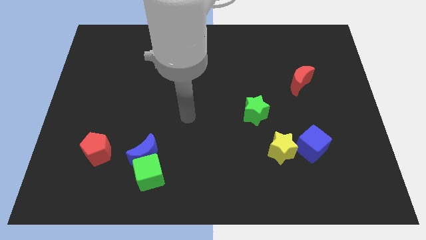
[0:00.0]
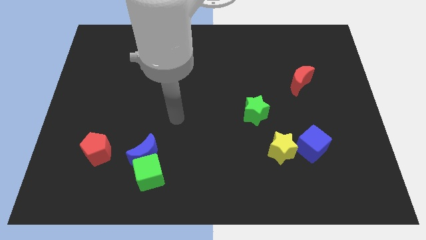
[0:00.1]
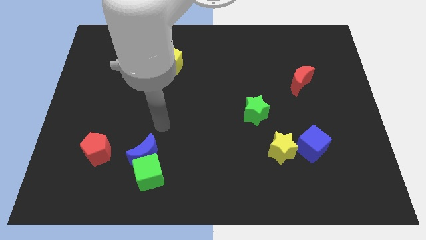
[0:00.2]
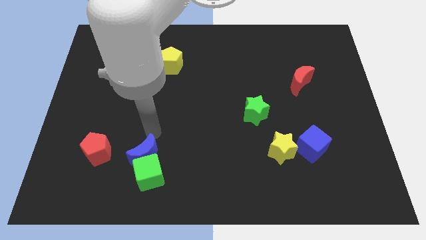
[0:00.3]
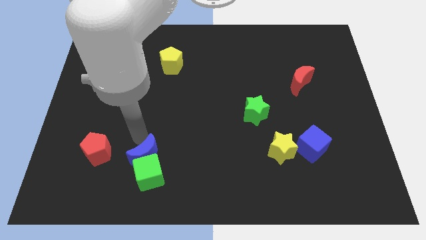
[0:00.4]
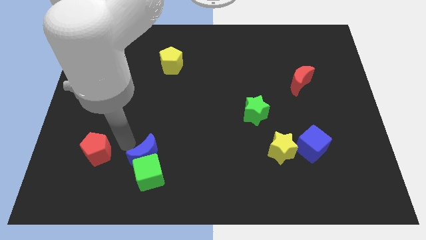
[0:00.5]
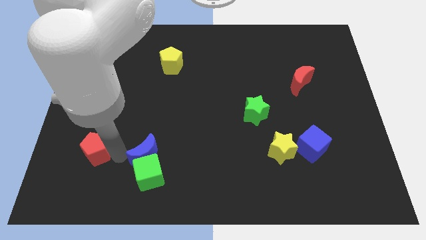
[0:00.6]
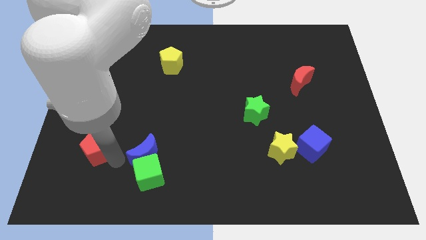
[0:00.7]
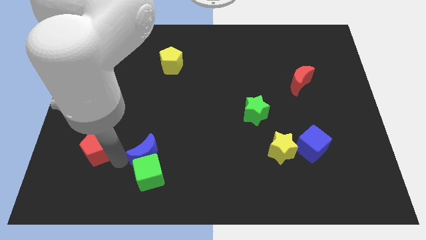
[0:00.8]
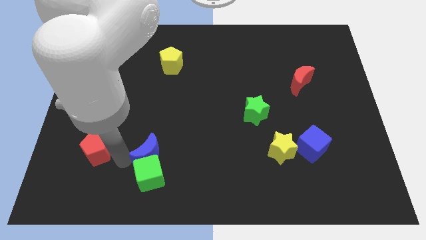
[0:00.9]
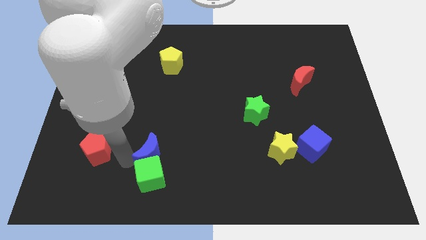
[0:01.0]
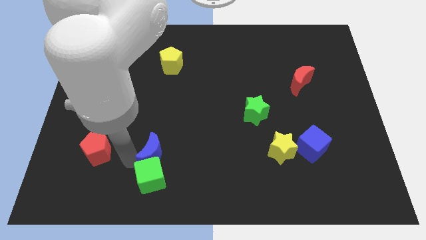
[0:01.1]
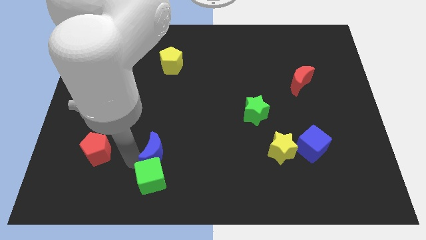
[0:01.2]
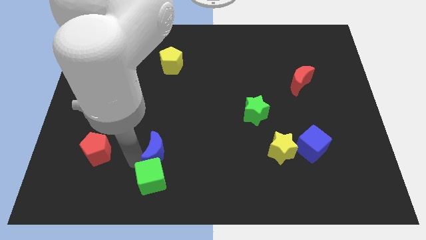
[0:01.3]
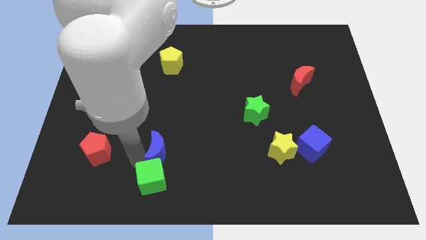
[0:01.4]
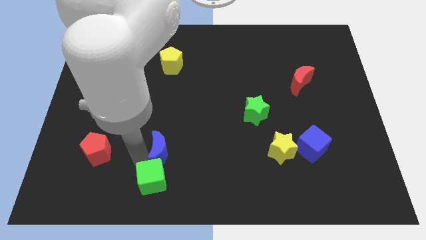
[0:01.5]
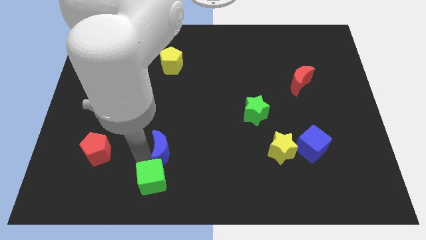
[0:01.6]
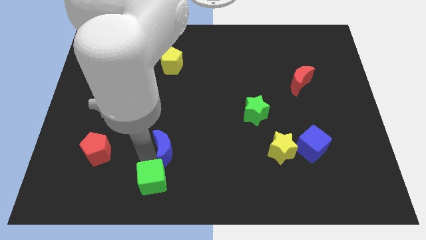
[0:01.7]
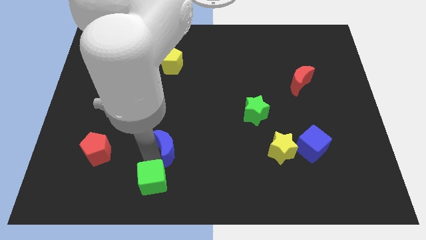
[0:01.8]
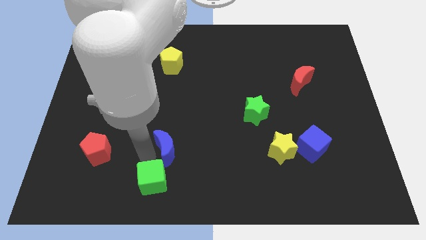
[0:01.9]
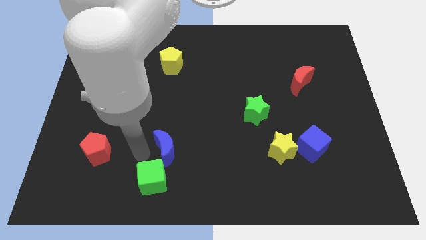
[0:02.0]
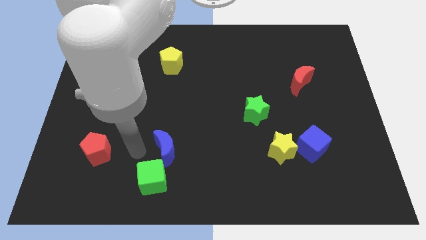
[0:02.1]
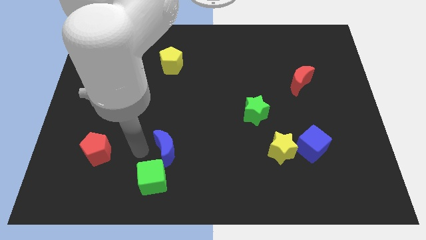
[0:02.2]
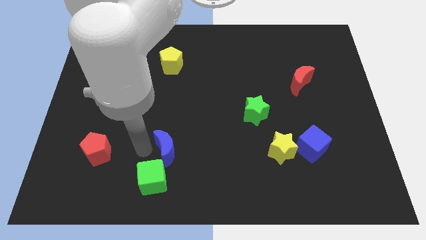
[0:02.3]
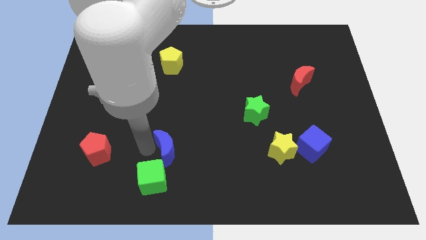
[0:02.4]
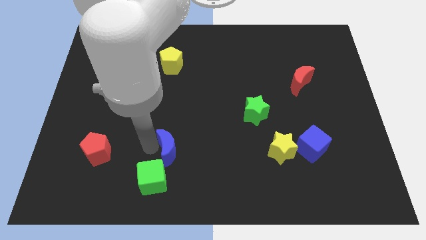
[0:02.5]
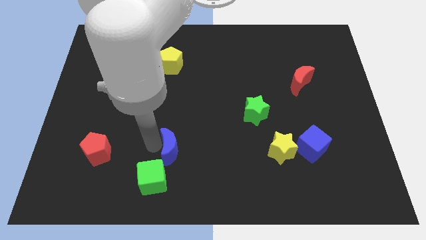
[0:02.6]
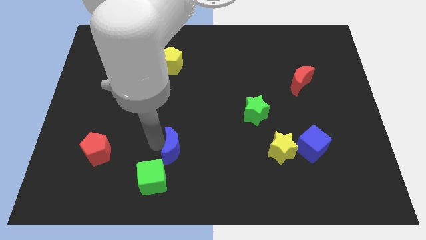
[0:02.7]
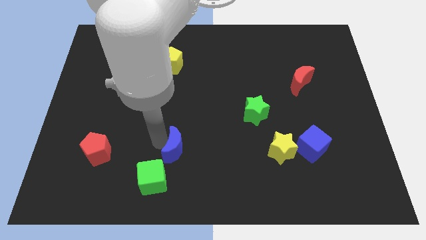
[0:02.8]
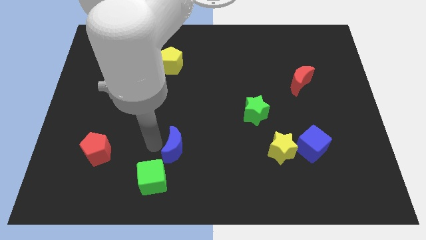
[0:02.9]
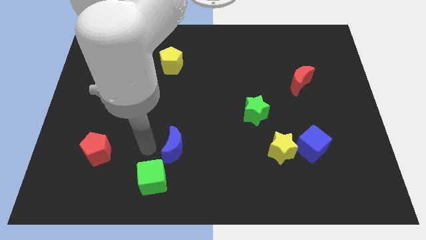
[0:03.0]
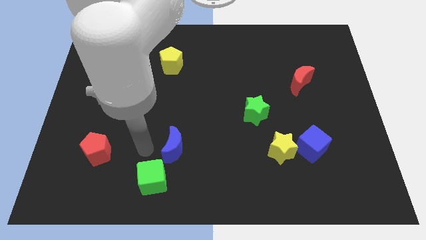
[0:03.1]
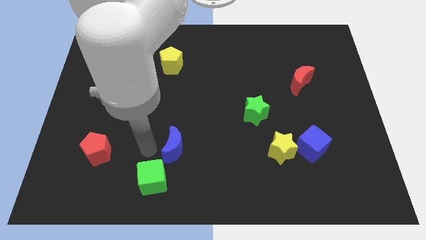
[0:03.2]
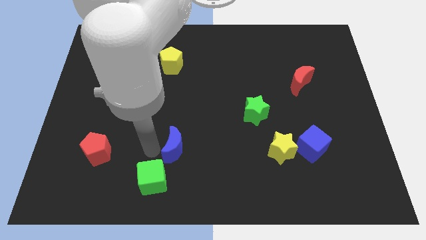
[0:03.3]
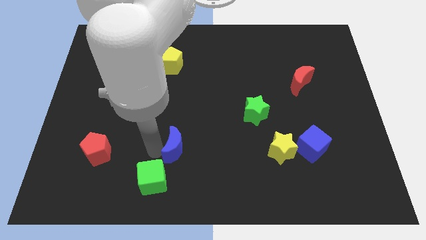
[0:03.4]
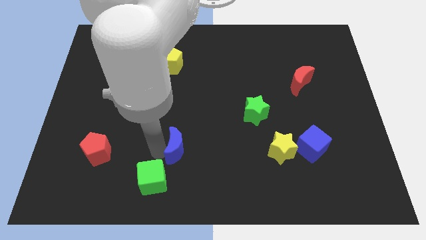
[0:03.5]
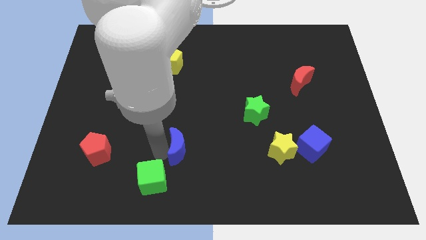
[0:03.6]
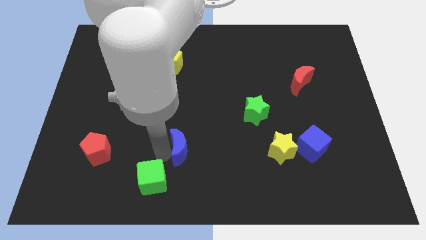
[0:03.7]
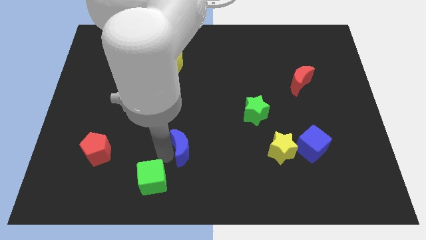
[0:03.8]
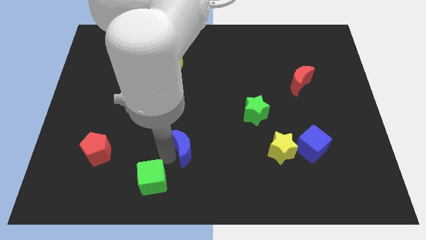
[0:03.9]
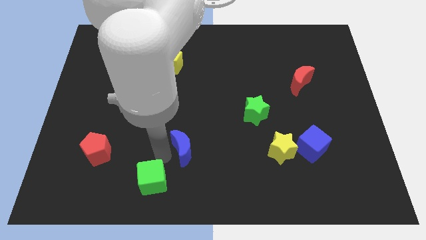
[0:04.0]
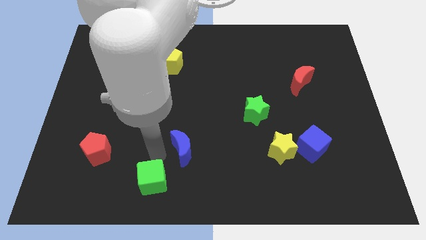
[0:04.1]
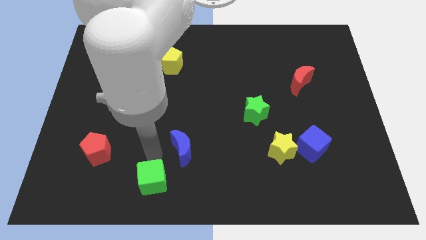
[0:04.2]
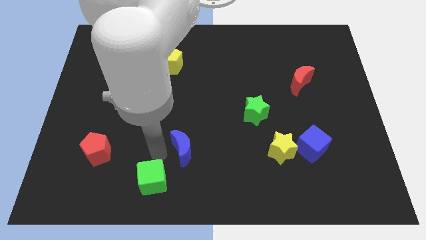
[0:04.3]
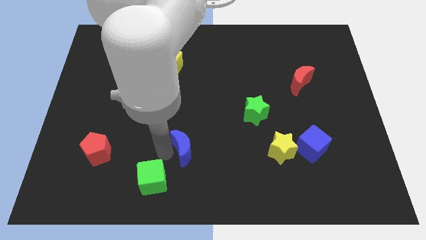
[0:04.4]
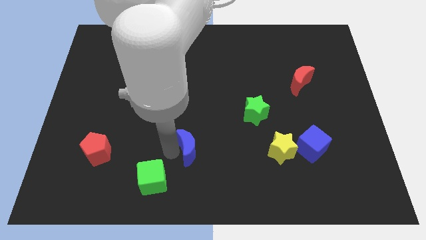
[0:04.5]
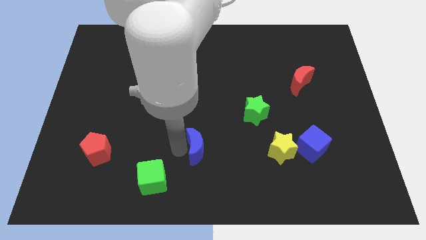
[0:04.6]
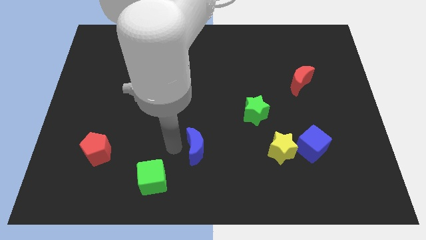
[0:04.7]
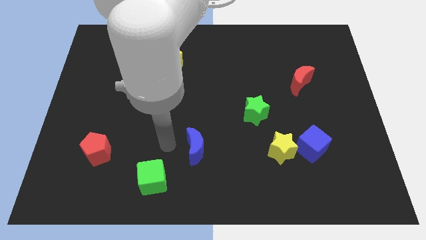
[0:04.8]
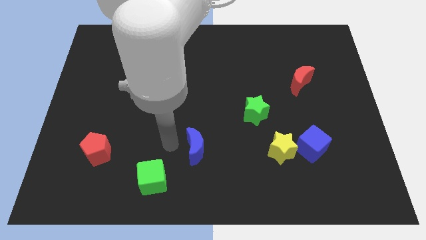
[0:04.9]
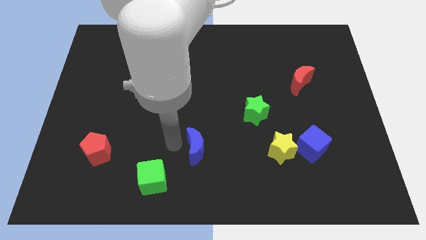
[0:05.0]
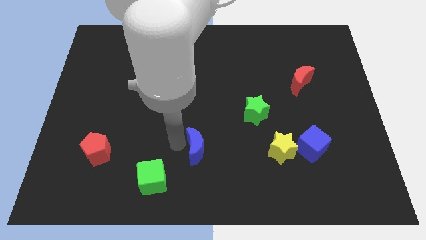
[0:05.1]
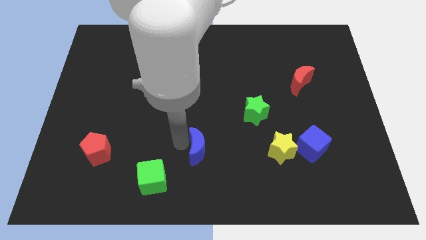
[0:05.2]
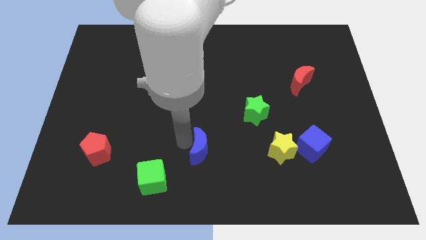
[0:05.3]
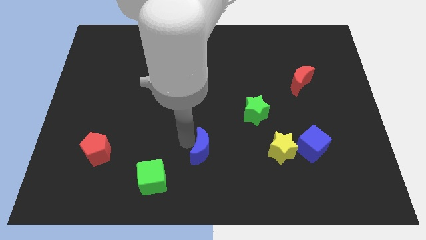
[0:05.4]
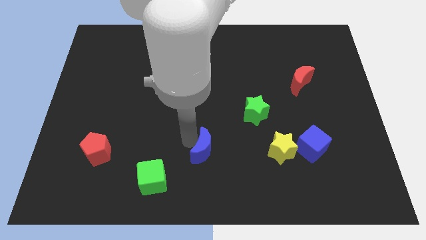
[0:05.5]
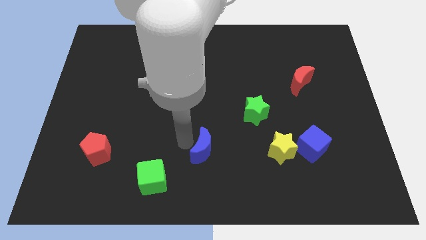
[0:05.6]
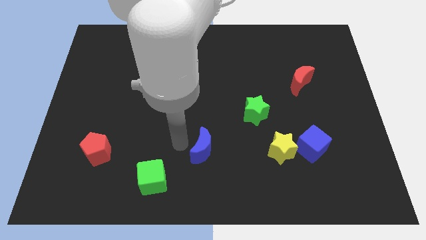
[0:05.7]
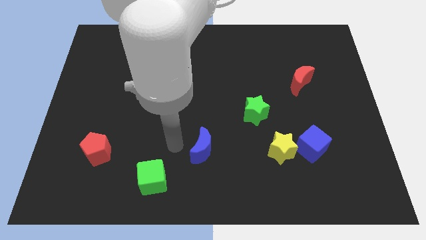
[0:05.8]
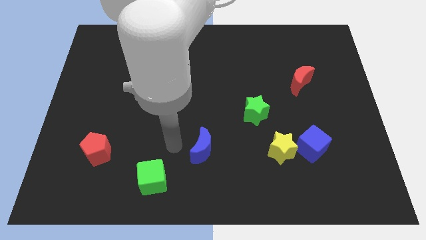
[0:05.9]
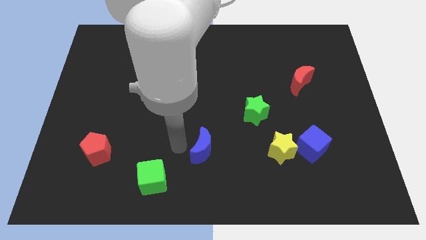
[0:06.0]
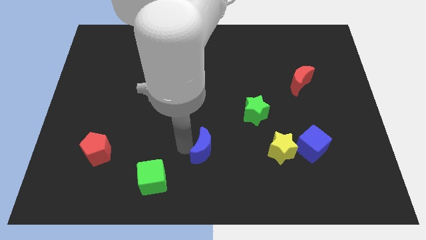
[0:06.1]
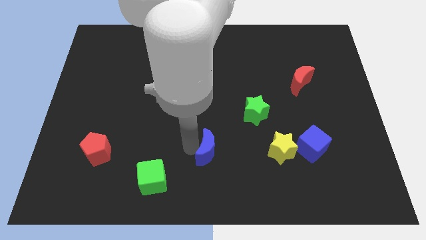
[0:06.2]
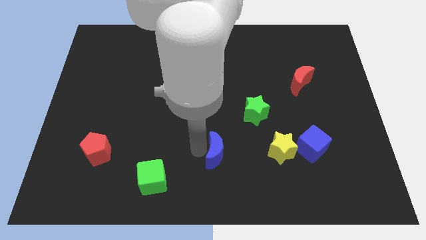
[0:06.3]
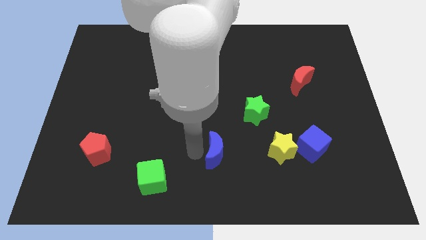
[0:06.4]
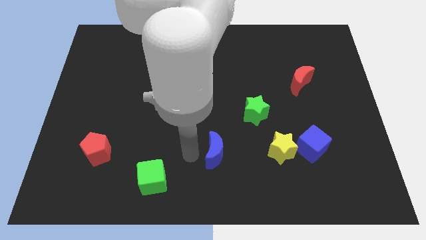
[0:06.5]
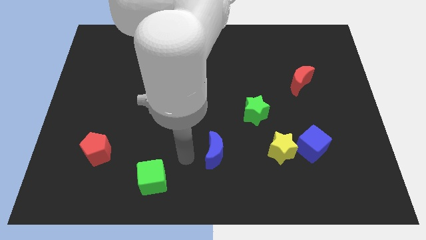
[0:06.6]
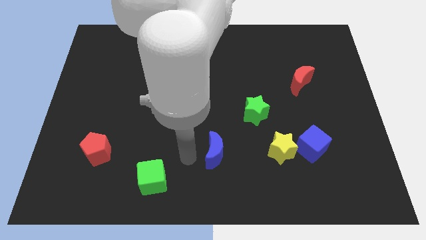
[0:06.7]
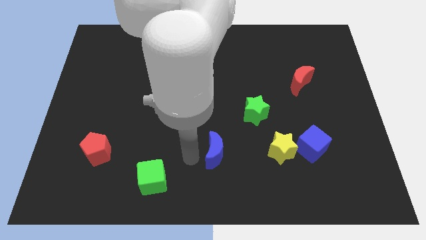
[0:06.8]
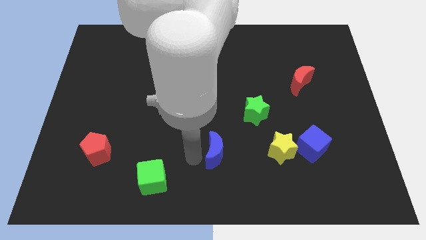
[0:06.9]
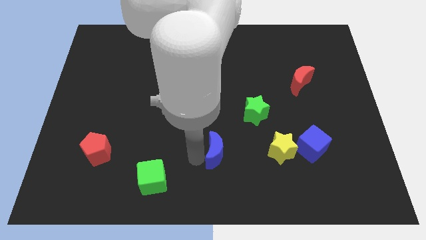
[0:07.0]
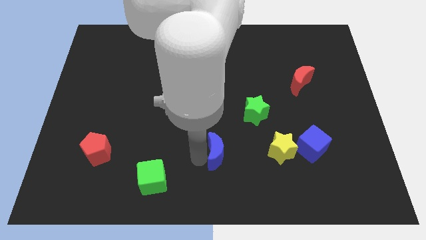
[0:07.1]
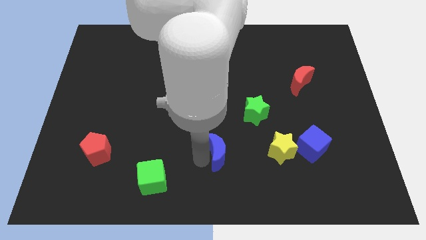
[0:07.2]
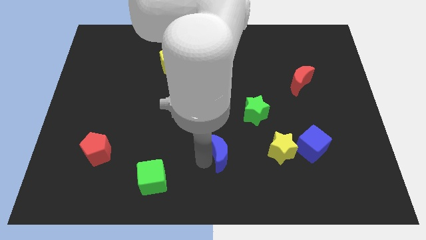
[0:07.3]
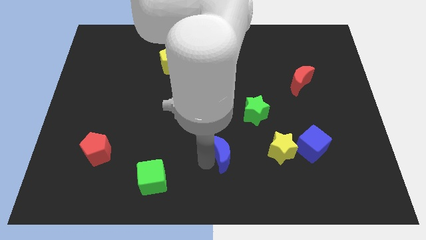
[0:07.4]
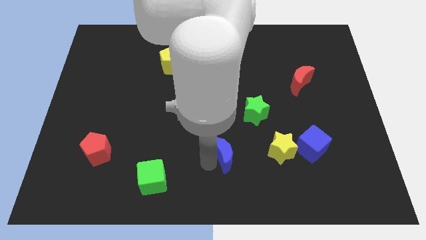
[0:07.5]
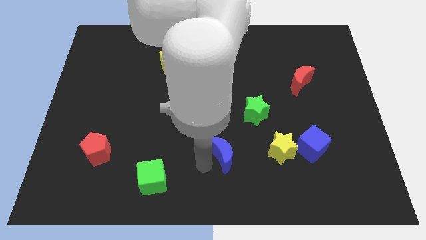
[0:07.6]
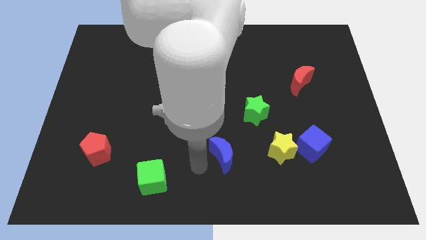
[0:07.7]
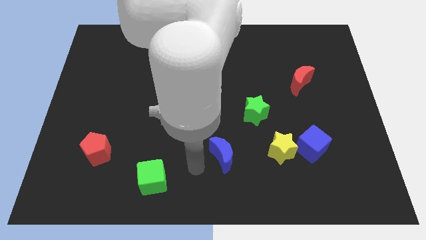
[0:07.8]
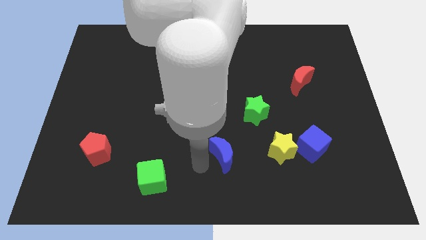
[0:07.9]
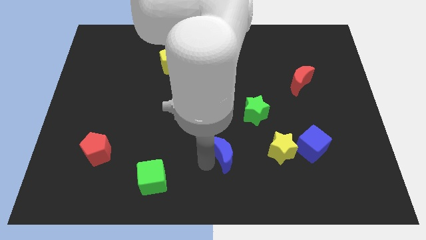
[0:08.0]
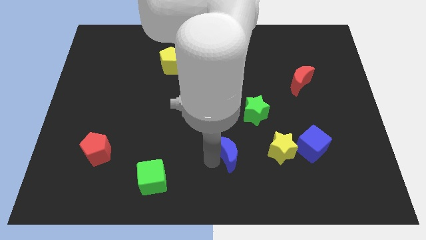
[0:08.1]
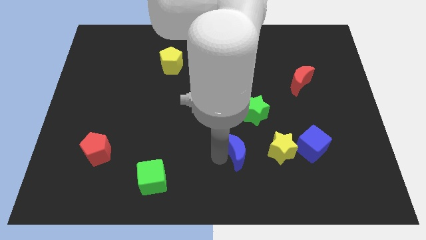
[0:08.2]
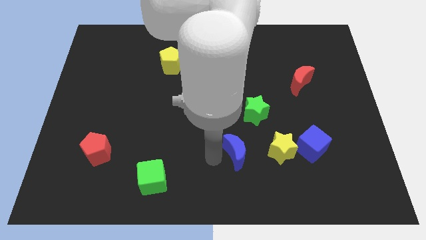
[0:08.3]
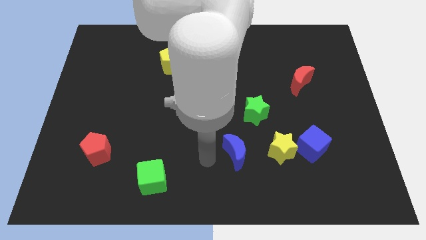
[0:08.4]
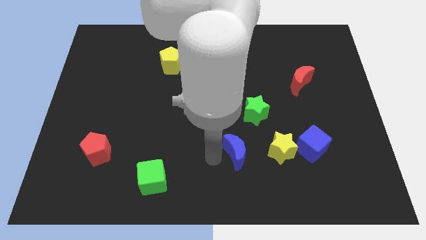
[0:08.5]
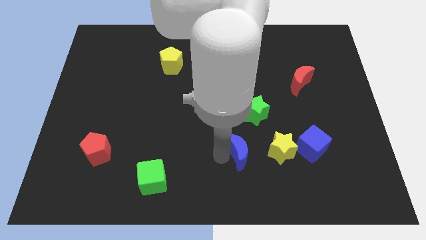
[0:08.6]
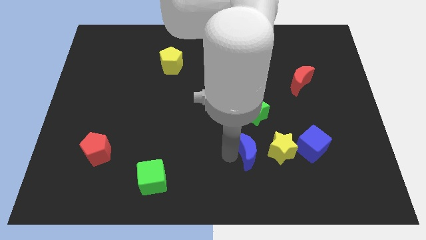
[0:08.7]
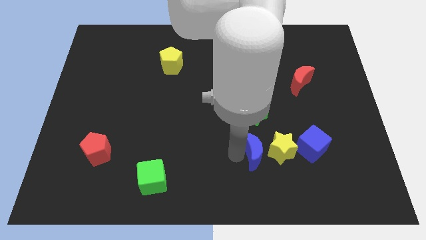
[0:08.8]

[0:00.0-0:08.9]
push the blue moon to the yellow star
